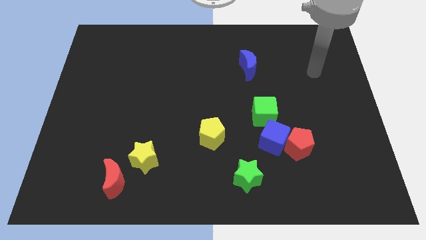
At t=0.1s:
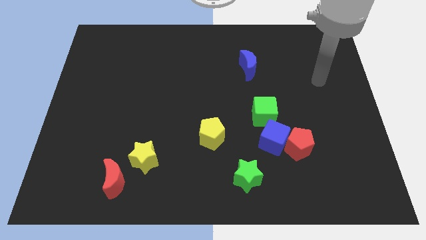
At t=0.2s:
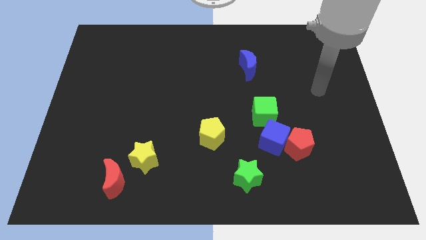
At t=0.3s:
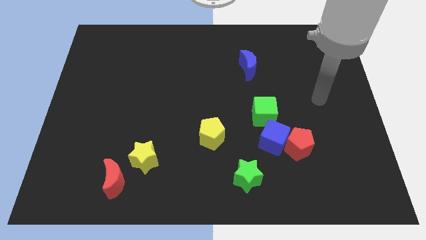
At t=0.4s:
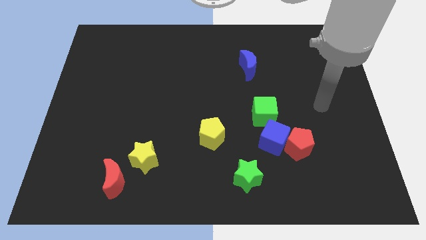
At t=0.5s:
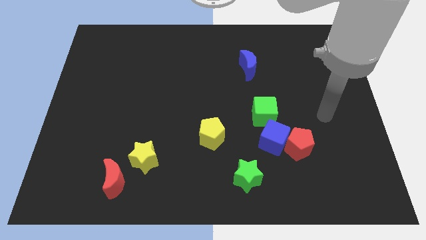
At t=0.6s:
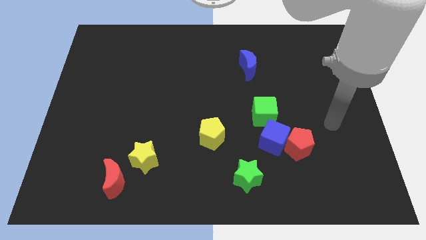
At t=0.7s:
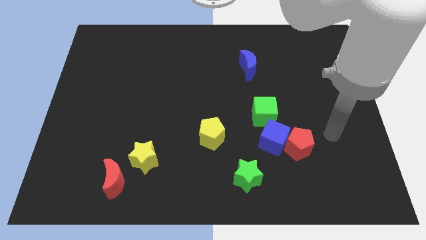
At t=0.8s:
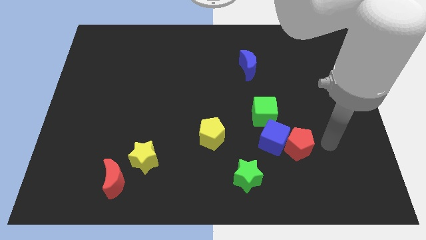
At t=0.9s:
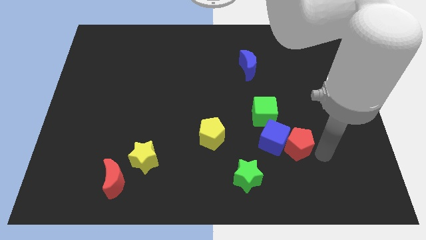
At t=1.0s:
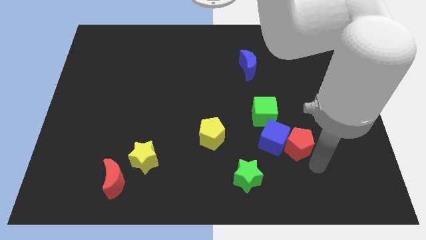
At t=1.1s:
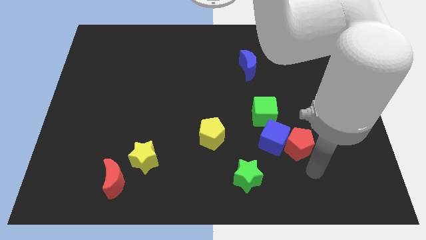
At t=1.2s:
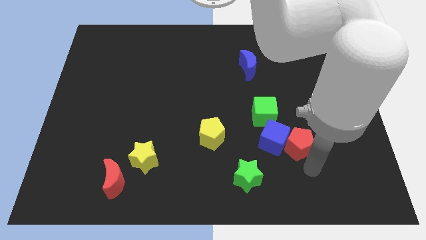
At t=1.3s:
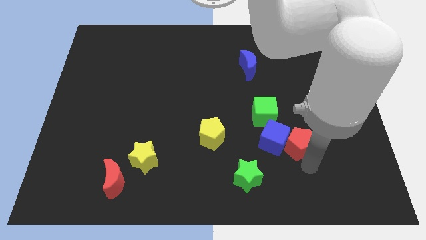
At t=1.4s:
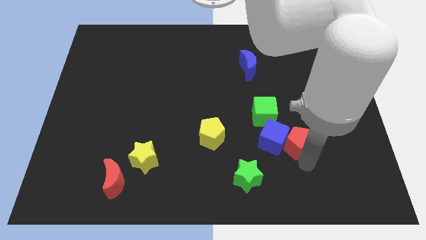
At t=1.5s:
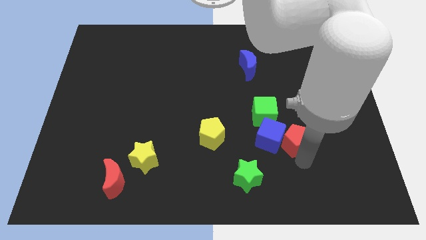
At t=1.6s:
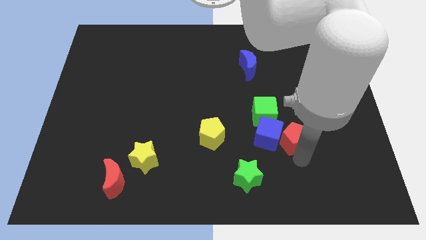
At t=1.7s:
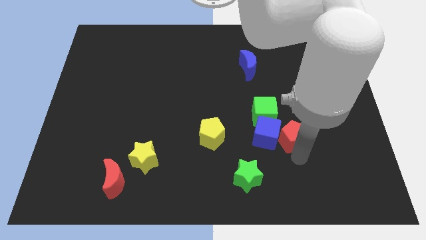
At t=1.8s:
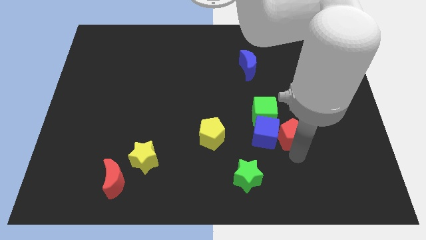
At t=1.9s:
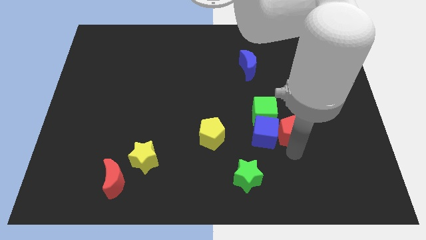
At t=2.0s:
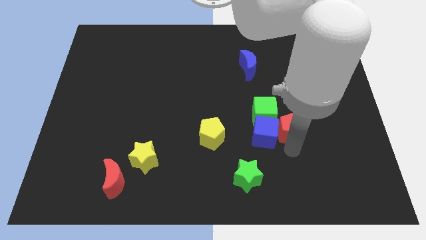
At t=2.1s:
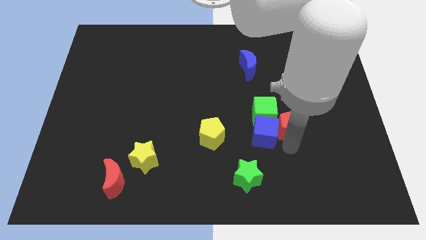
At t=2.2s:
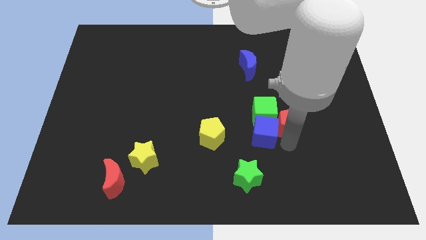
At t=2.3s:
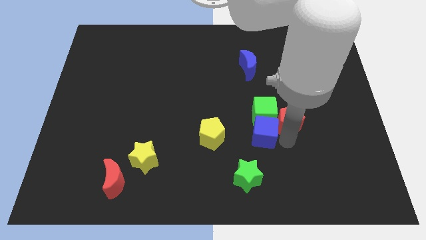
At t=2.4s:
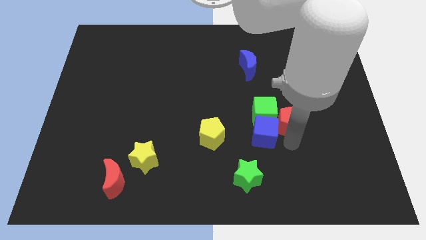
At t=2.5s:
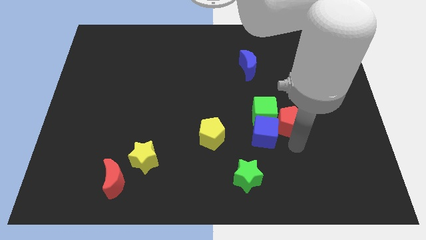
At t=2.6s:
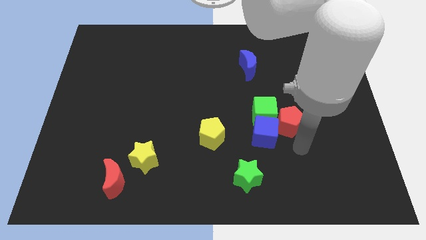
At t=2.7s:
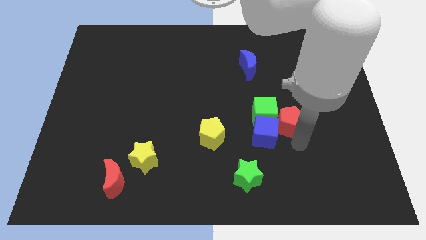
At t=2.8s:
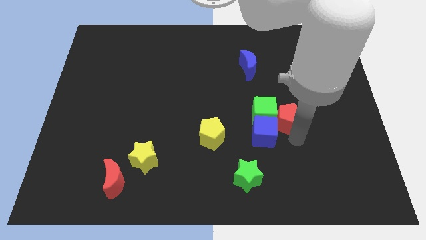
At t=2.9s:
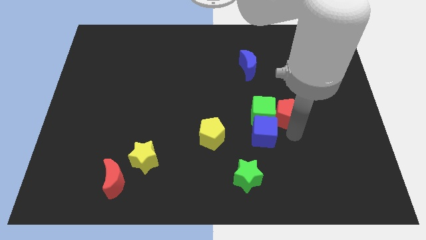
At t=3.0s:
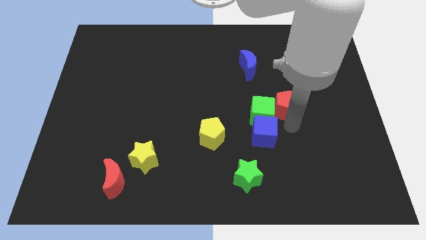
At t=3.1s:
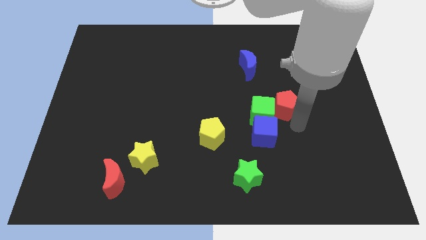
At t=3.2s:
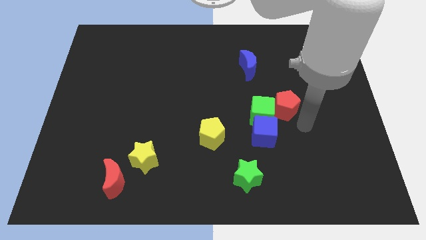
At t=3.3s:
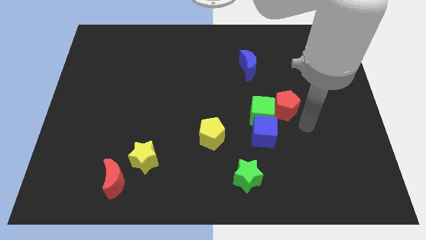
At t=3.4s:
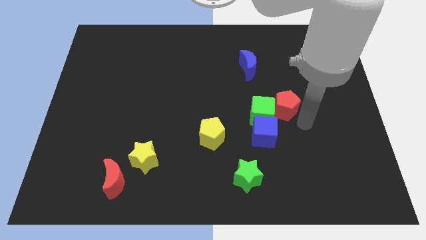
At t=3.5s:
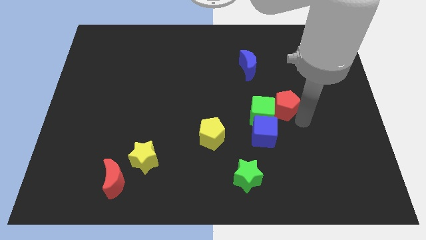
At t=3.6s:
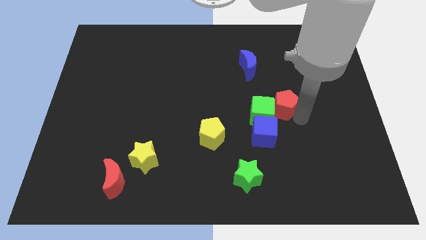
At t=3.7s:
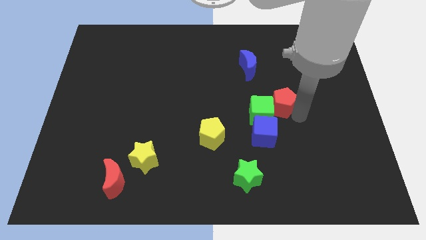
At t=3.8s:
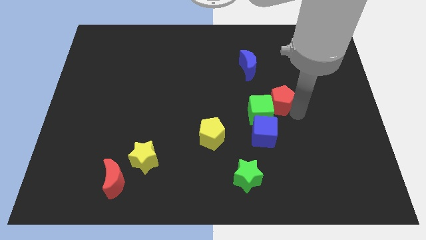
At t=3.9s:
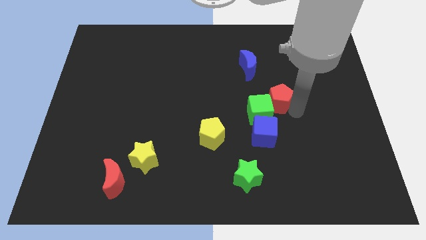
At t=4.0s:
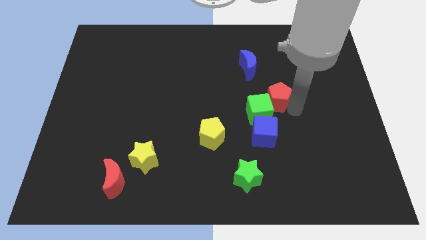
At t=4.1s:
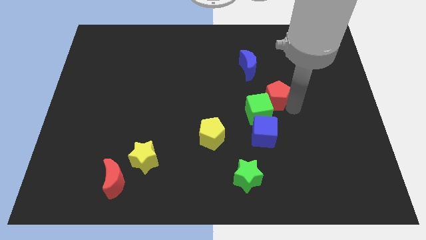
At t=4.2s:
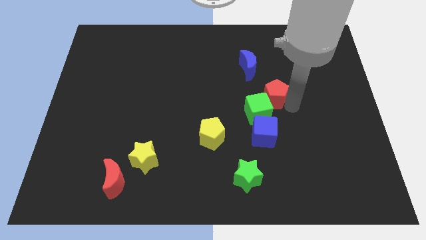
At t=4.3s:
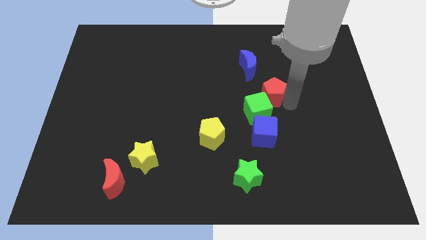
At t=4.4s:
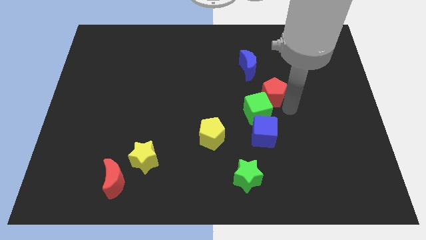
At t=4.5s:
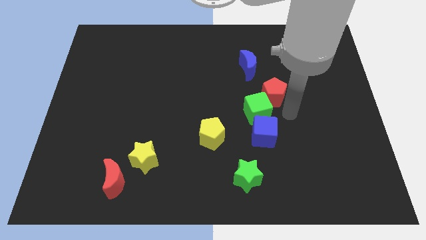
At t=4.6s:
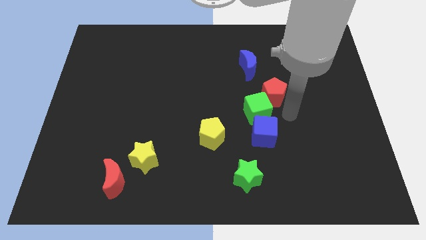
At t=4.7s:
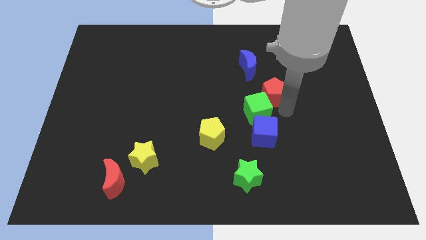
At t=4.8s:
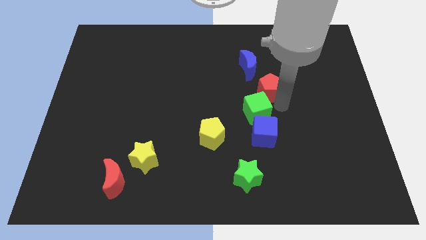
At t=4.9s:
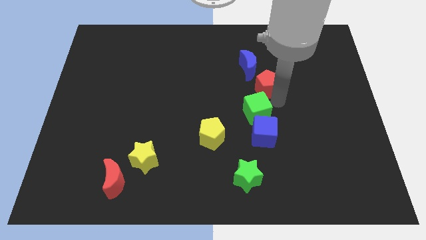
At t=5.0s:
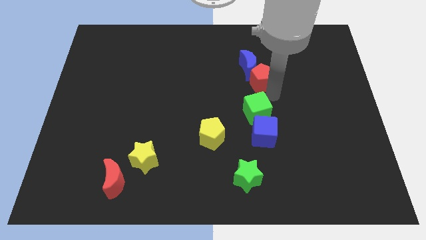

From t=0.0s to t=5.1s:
put the red pentagon next to the blue moon

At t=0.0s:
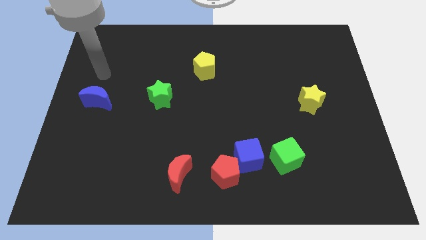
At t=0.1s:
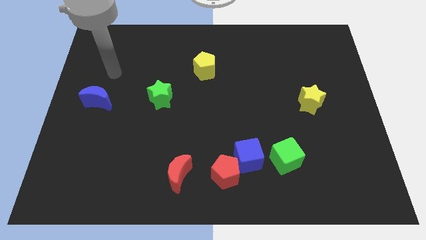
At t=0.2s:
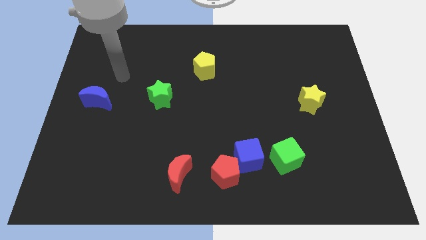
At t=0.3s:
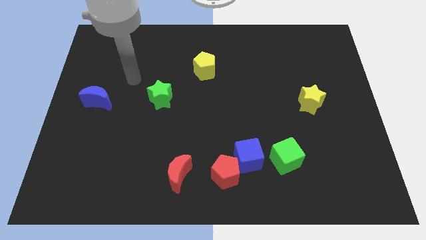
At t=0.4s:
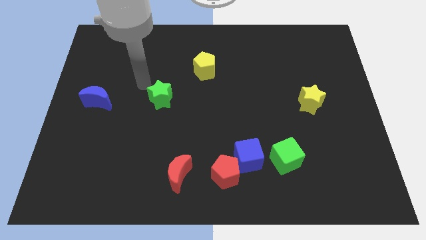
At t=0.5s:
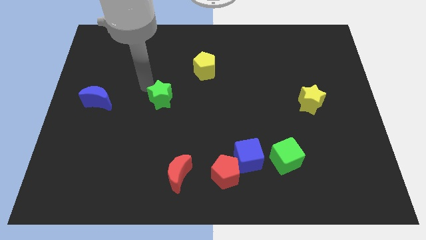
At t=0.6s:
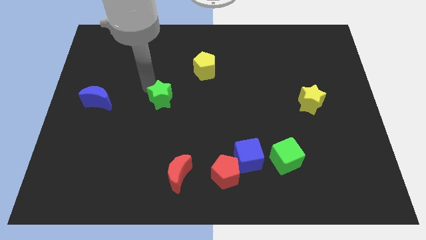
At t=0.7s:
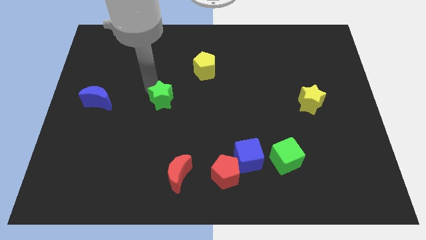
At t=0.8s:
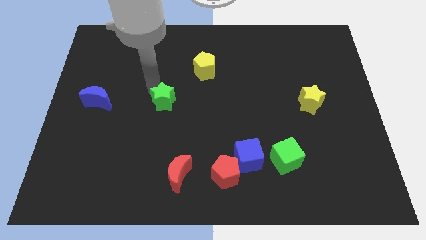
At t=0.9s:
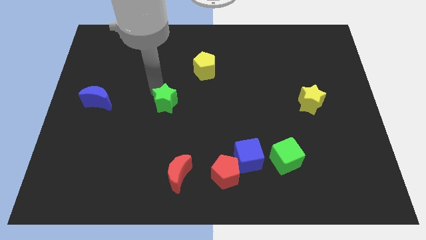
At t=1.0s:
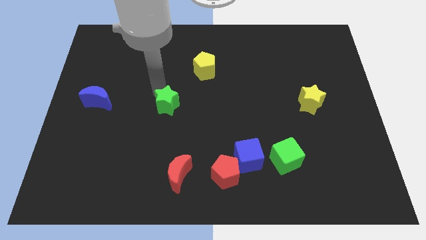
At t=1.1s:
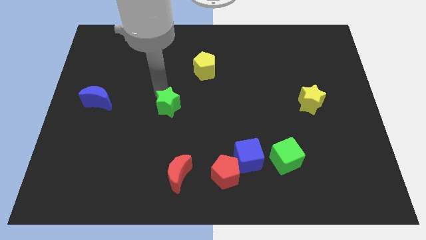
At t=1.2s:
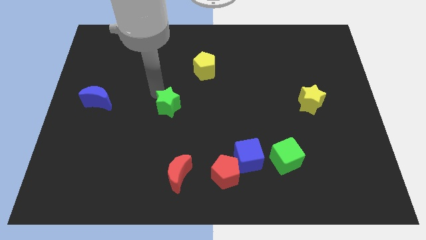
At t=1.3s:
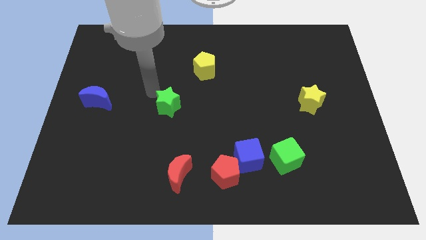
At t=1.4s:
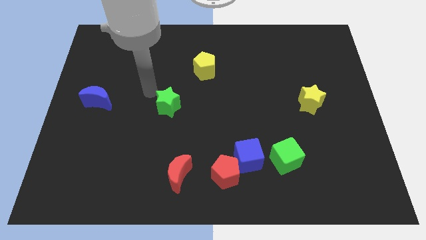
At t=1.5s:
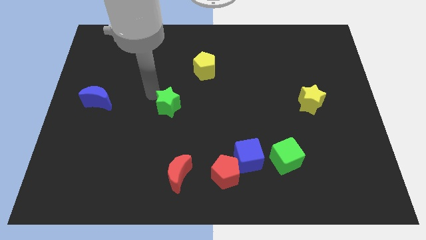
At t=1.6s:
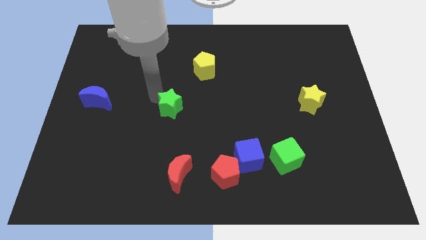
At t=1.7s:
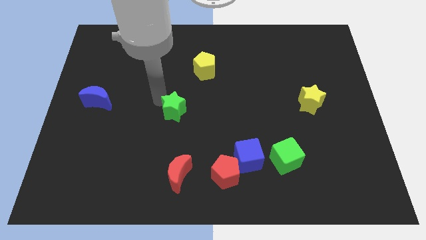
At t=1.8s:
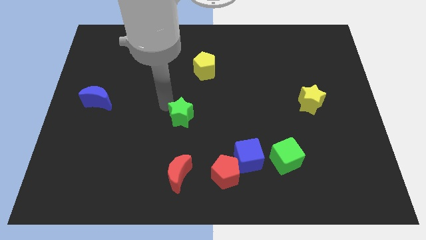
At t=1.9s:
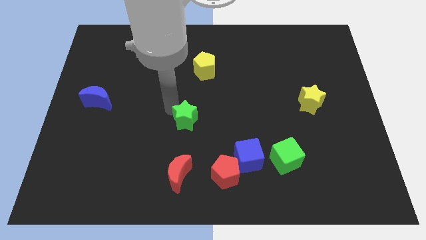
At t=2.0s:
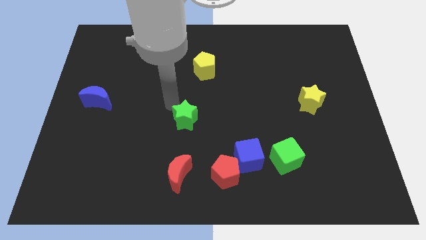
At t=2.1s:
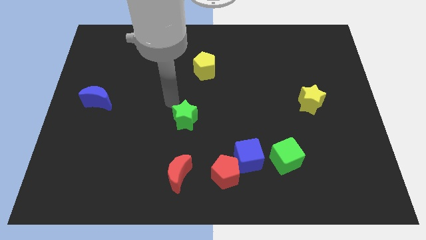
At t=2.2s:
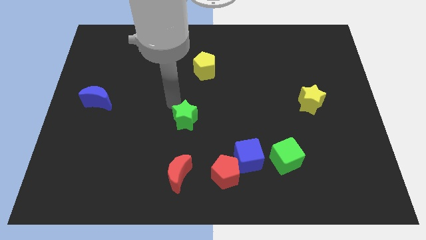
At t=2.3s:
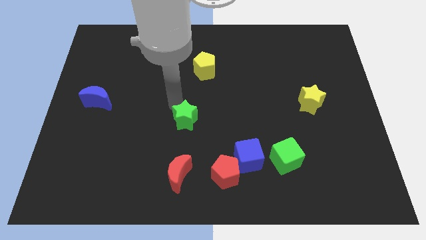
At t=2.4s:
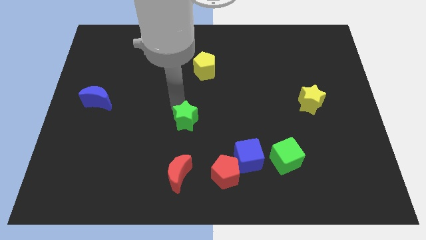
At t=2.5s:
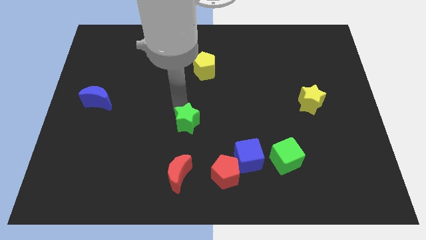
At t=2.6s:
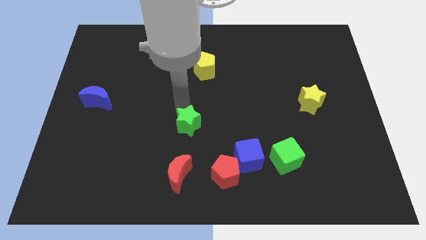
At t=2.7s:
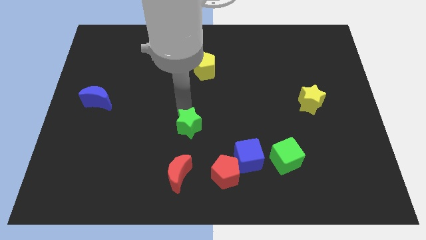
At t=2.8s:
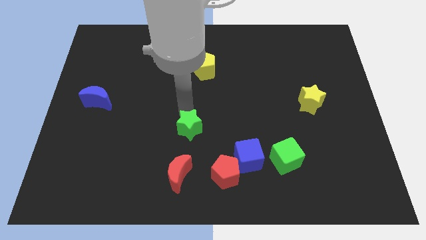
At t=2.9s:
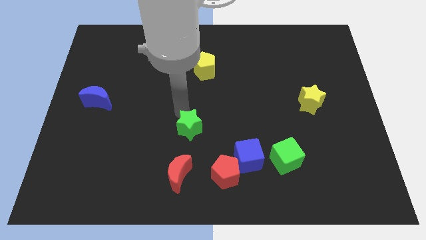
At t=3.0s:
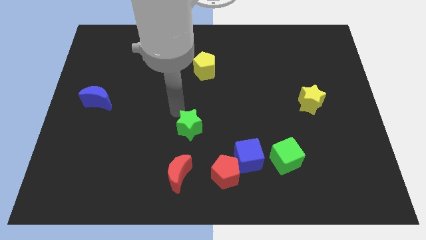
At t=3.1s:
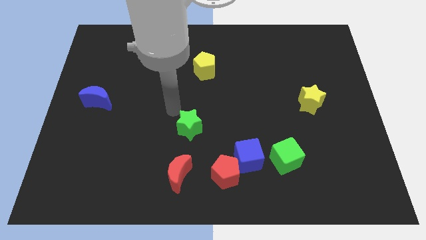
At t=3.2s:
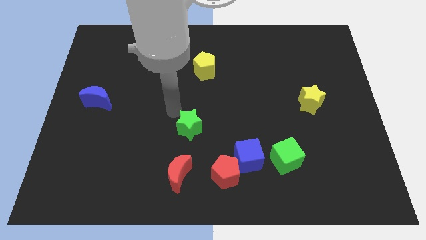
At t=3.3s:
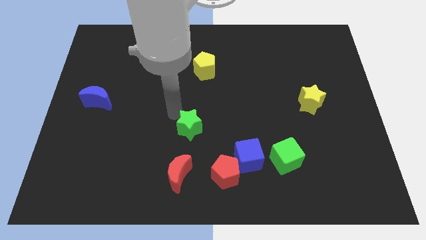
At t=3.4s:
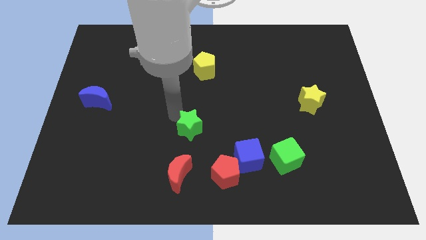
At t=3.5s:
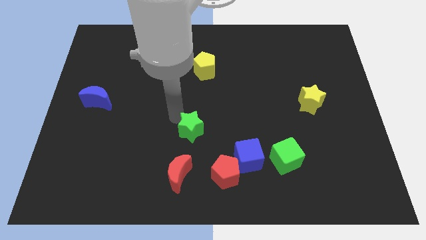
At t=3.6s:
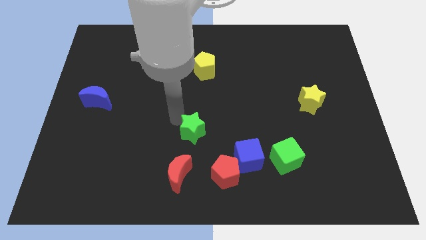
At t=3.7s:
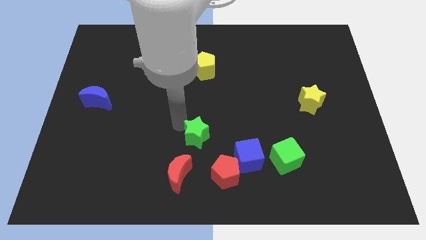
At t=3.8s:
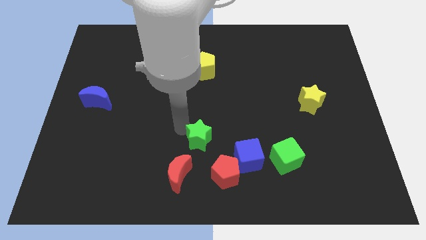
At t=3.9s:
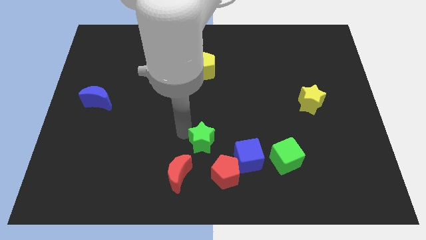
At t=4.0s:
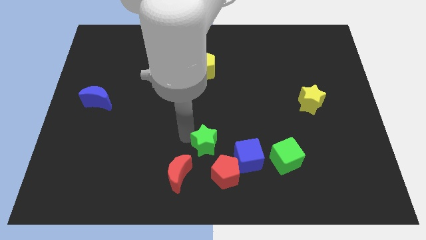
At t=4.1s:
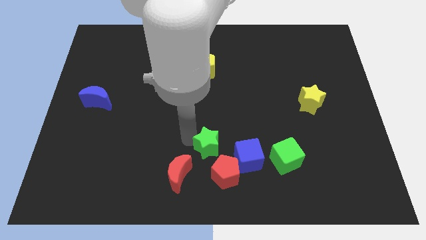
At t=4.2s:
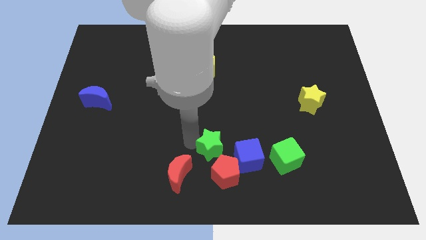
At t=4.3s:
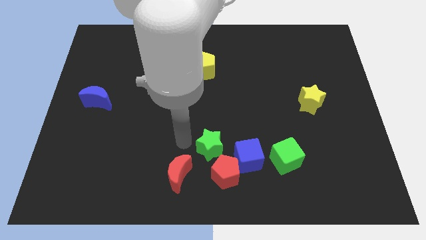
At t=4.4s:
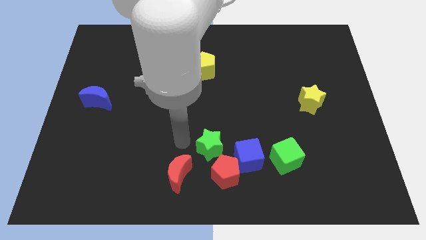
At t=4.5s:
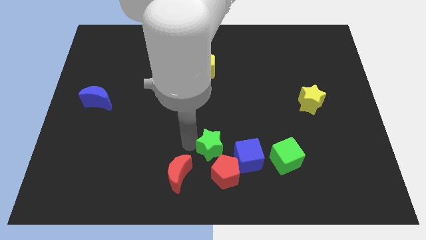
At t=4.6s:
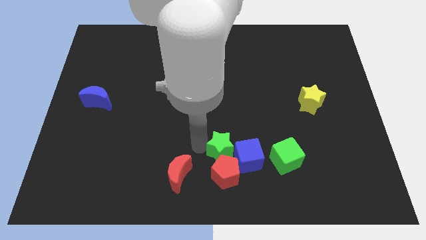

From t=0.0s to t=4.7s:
push the green star close to the blue cube
